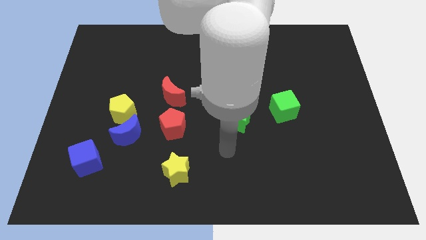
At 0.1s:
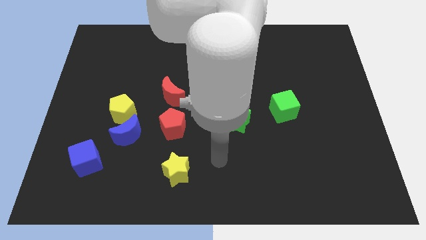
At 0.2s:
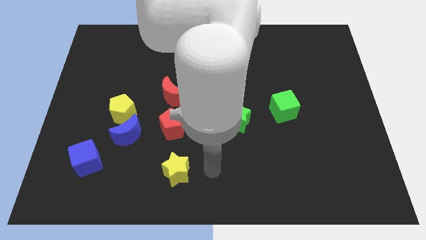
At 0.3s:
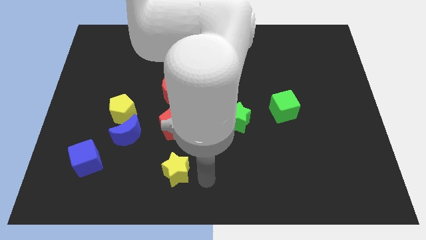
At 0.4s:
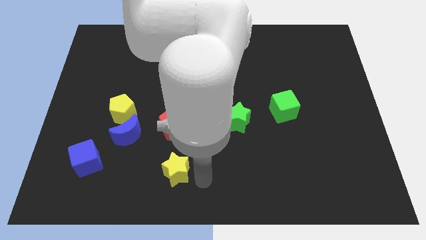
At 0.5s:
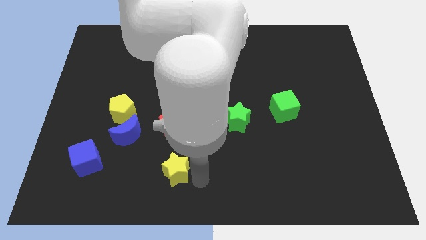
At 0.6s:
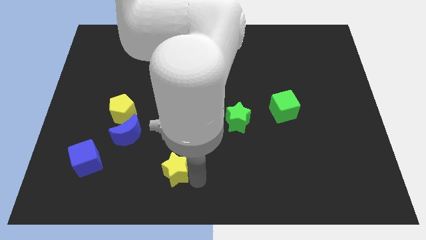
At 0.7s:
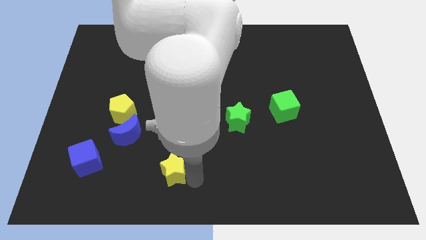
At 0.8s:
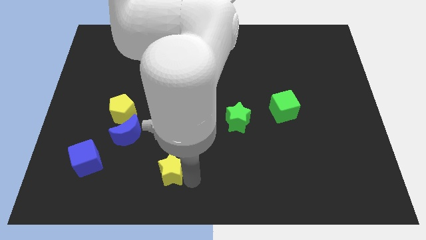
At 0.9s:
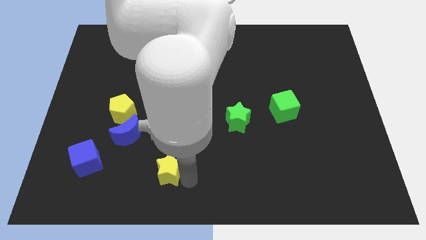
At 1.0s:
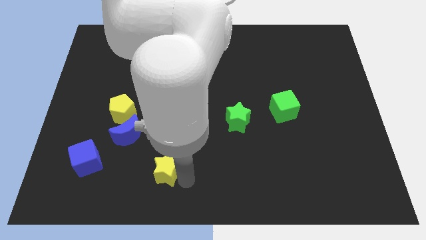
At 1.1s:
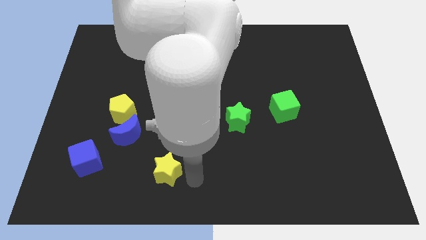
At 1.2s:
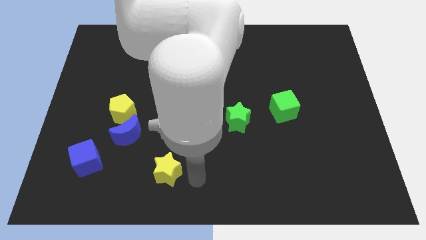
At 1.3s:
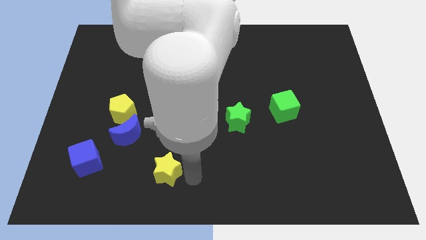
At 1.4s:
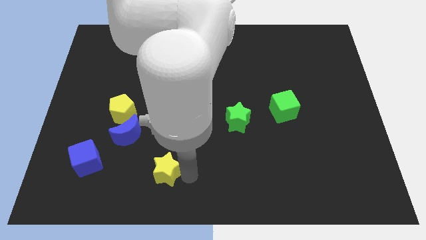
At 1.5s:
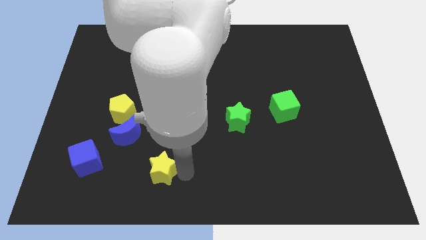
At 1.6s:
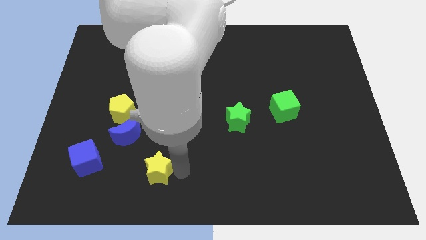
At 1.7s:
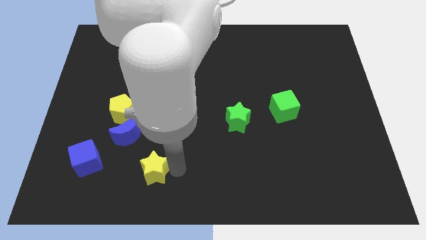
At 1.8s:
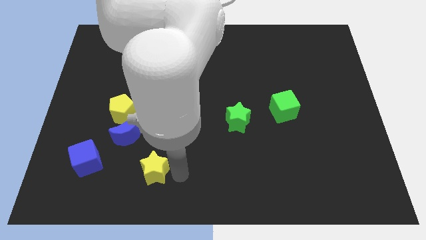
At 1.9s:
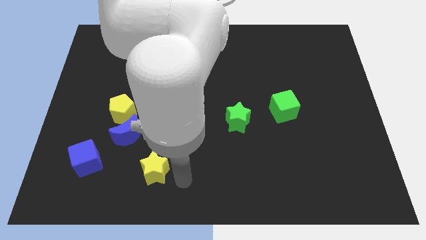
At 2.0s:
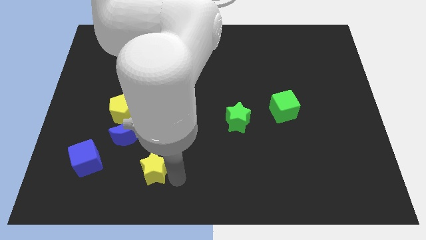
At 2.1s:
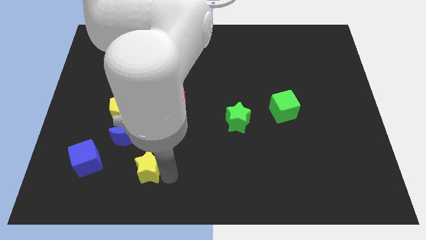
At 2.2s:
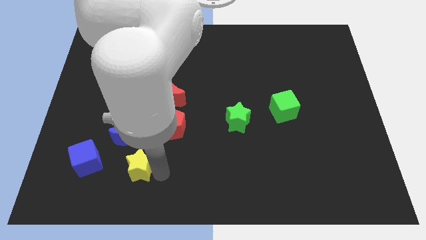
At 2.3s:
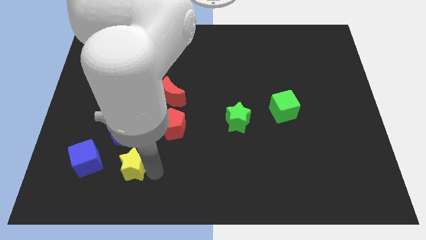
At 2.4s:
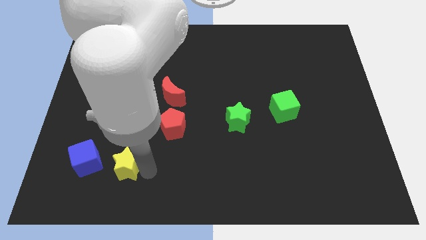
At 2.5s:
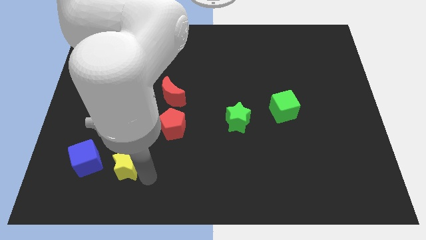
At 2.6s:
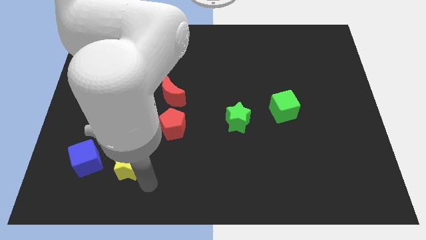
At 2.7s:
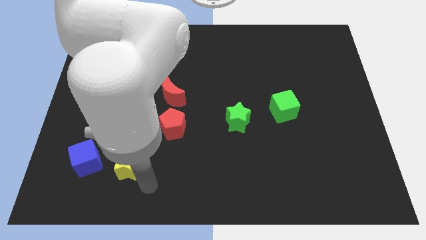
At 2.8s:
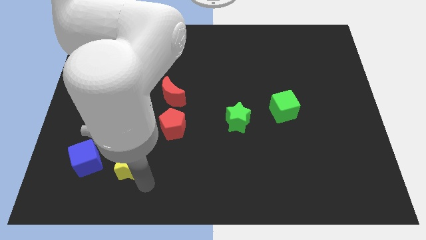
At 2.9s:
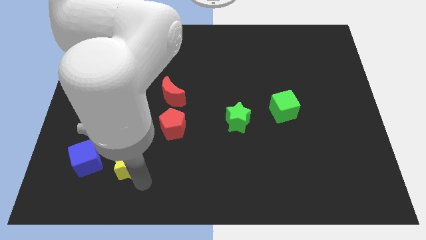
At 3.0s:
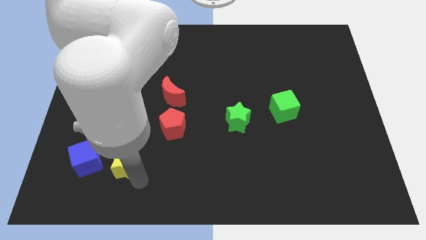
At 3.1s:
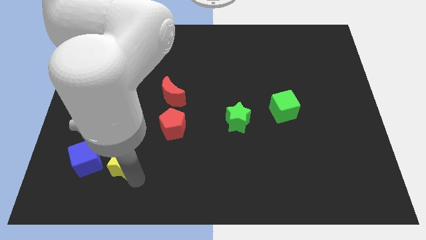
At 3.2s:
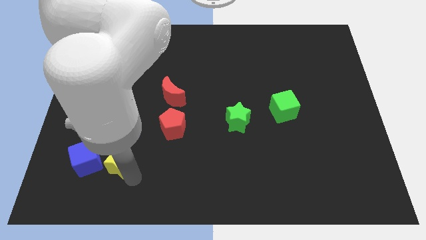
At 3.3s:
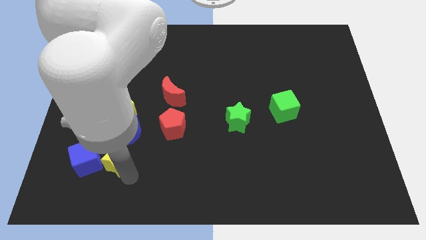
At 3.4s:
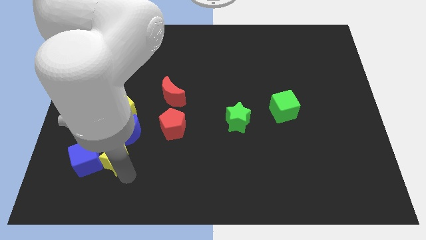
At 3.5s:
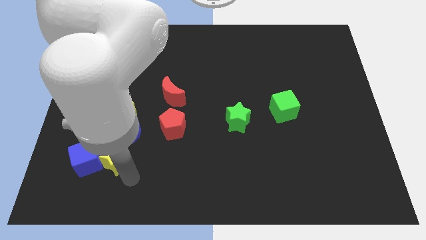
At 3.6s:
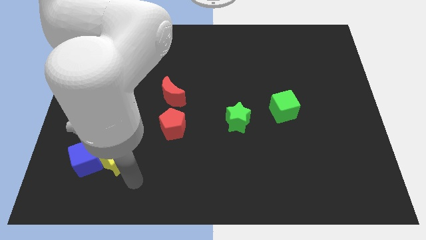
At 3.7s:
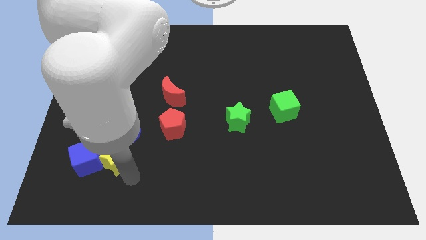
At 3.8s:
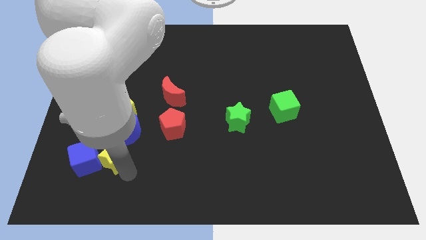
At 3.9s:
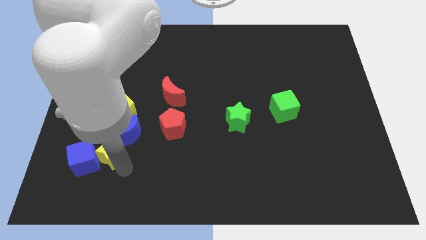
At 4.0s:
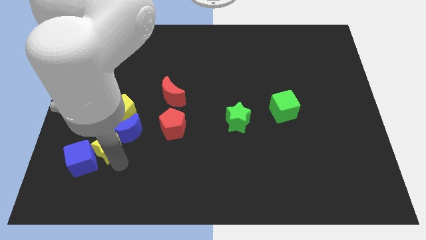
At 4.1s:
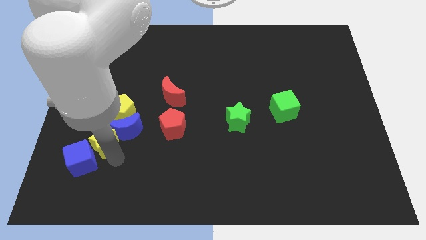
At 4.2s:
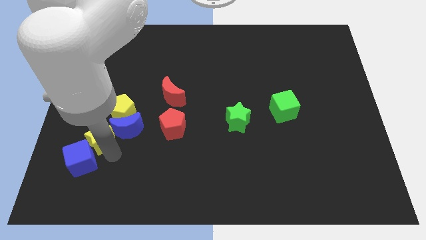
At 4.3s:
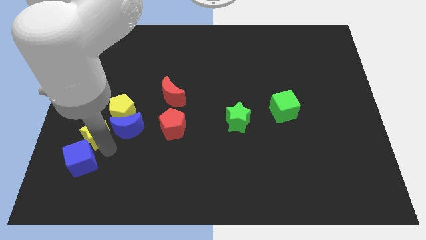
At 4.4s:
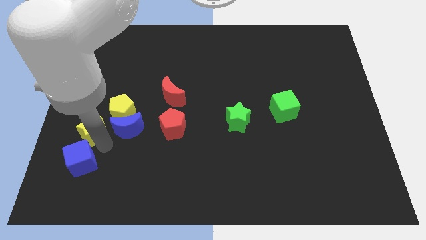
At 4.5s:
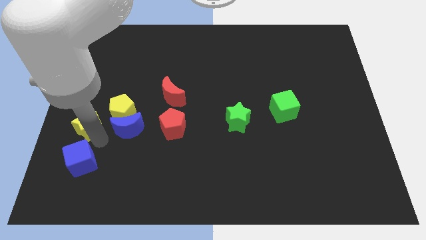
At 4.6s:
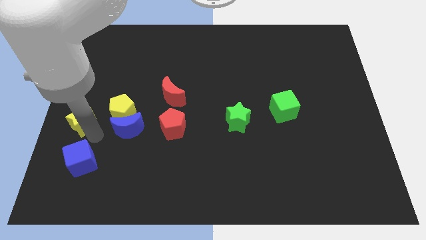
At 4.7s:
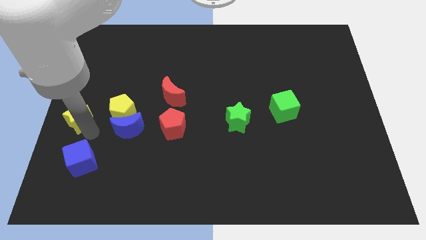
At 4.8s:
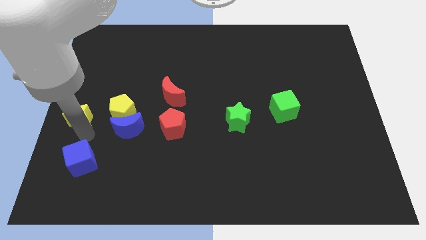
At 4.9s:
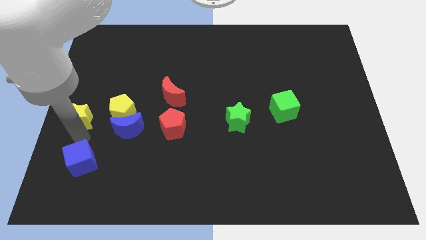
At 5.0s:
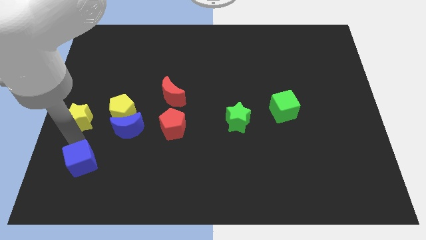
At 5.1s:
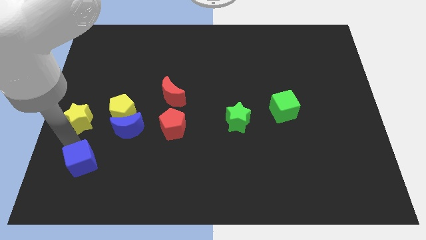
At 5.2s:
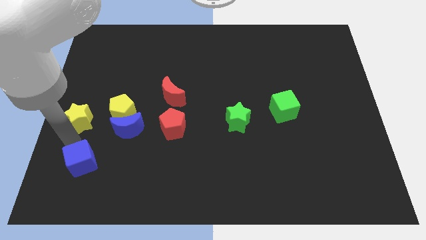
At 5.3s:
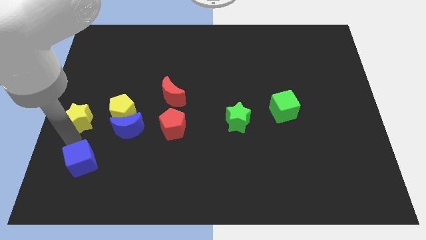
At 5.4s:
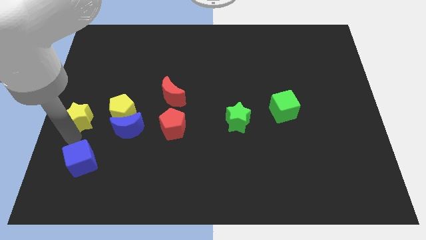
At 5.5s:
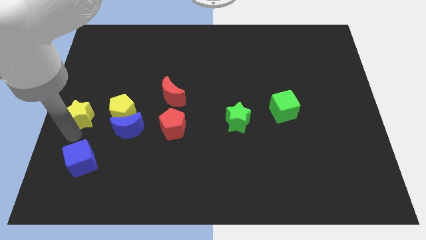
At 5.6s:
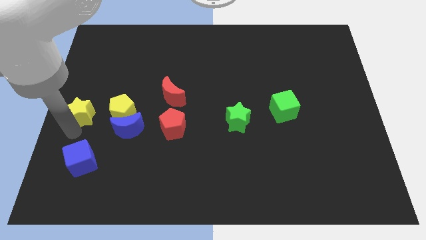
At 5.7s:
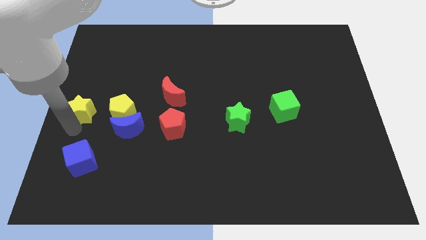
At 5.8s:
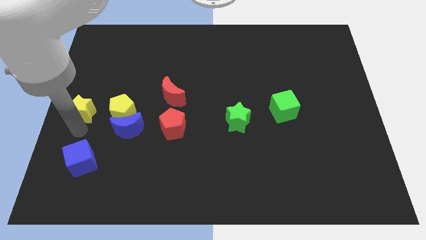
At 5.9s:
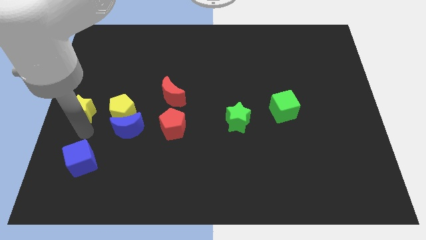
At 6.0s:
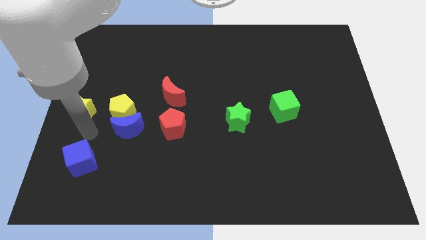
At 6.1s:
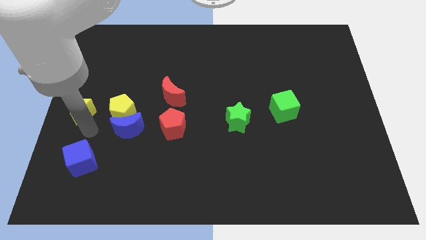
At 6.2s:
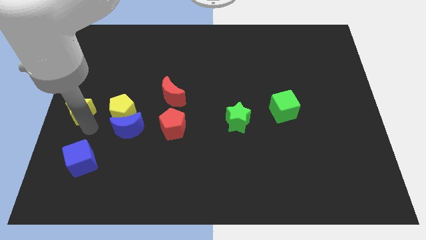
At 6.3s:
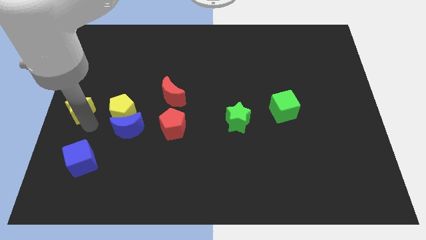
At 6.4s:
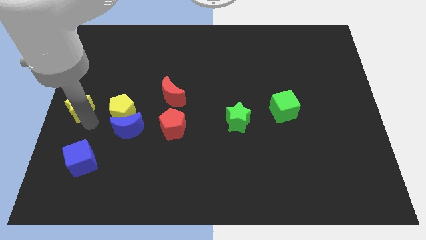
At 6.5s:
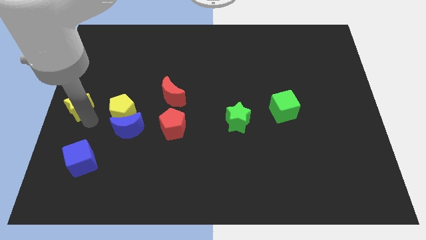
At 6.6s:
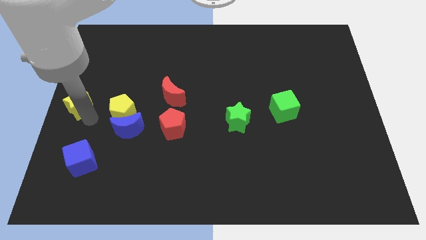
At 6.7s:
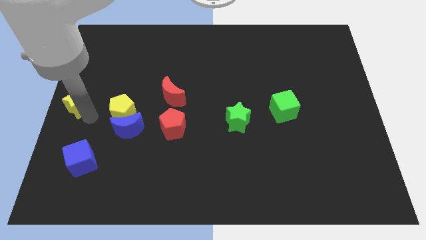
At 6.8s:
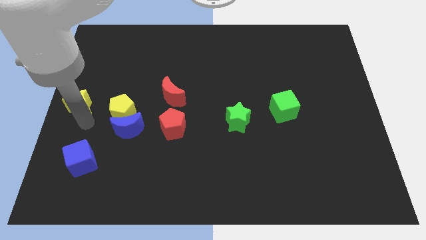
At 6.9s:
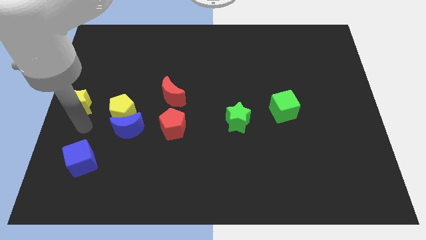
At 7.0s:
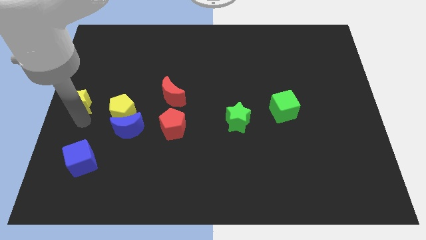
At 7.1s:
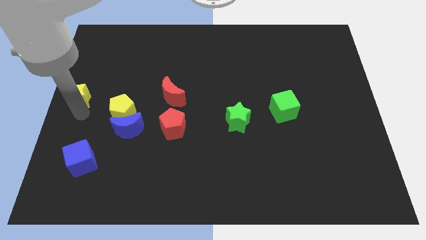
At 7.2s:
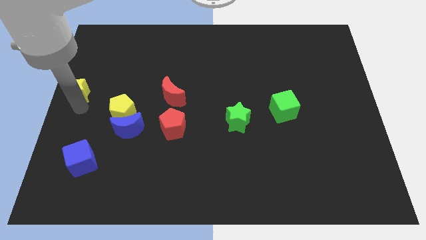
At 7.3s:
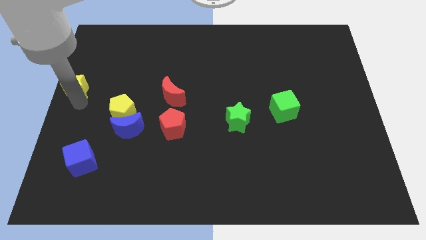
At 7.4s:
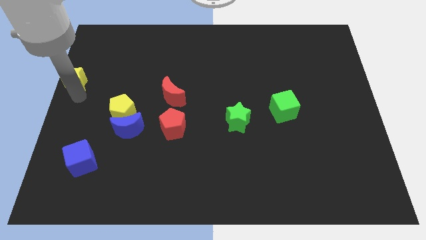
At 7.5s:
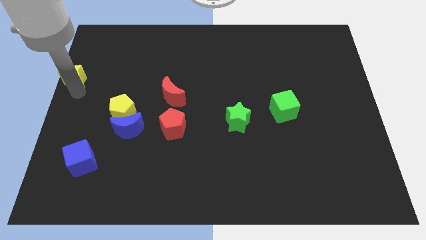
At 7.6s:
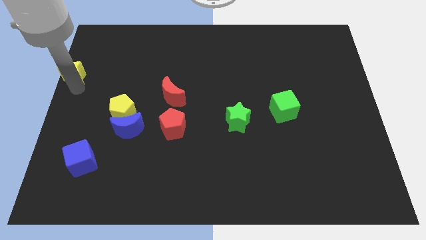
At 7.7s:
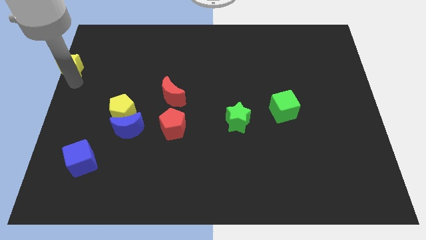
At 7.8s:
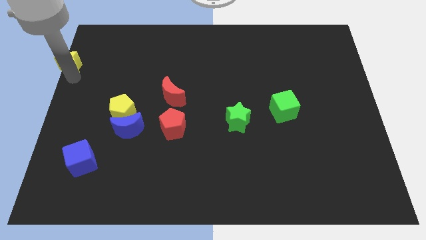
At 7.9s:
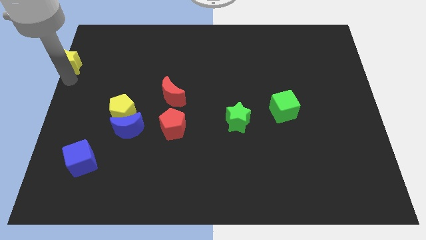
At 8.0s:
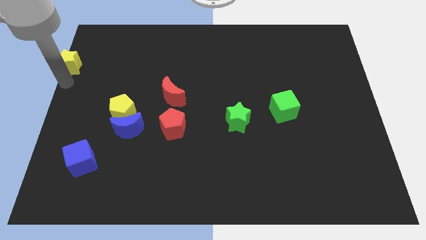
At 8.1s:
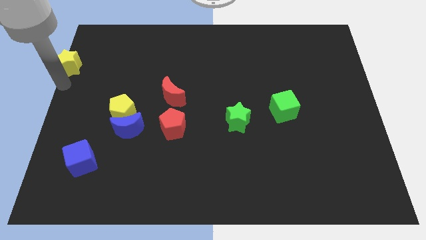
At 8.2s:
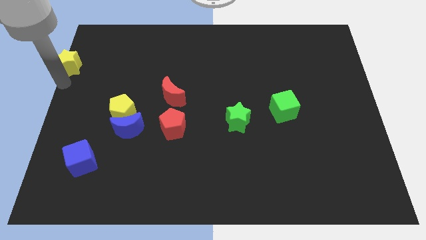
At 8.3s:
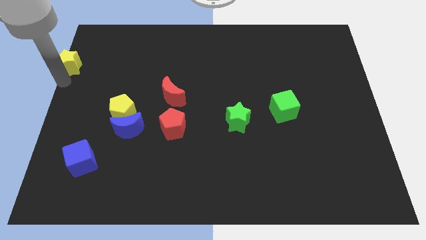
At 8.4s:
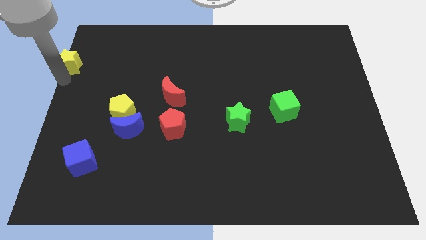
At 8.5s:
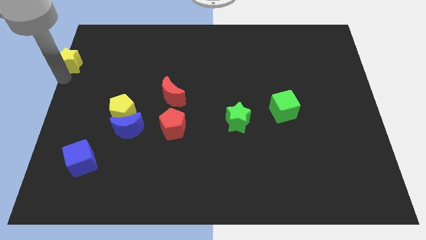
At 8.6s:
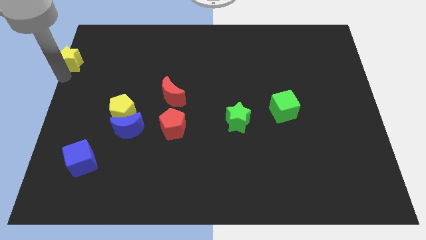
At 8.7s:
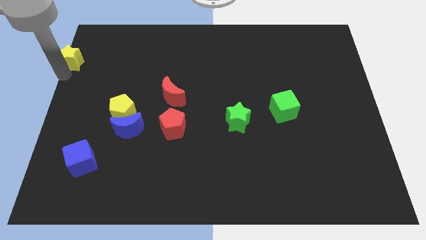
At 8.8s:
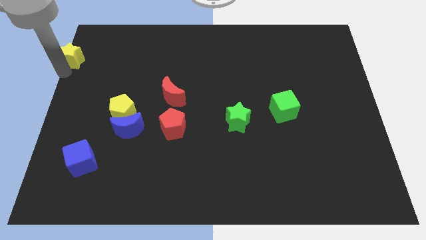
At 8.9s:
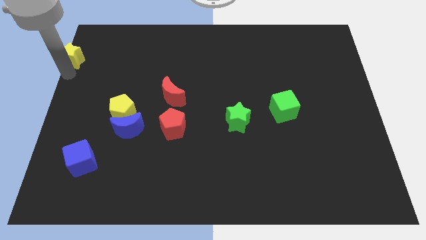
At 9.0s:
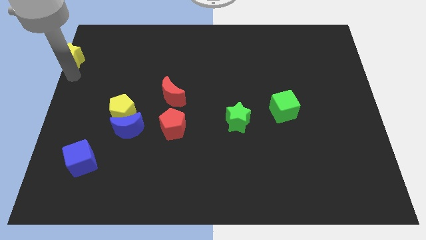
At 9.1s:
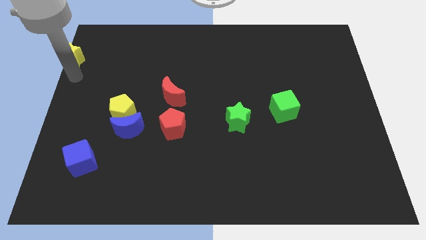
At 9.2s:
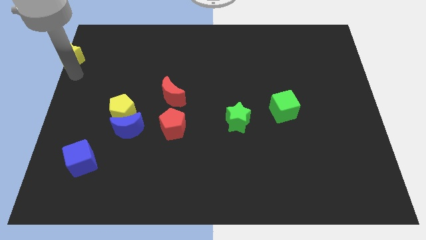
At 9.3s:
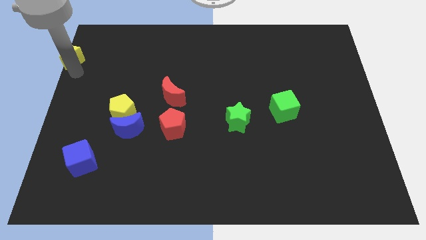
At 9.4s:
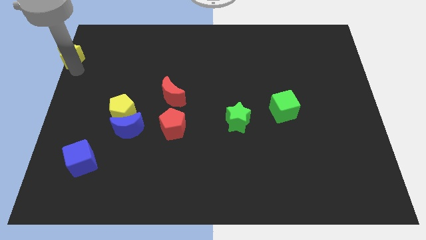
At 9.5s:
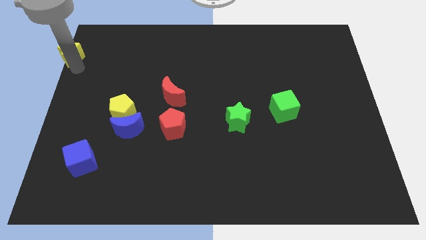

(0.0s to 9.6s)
put the yellow star to the top left of the board
